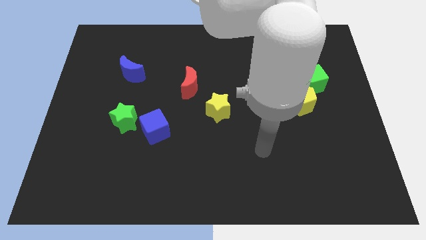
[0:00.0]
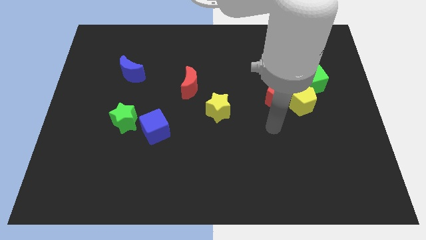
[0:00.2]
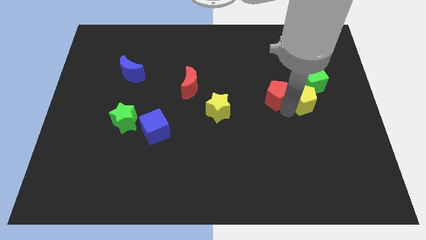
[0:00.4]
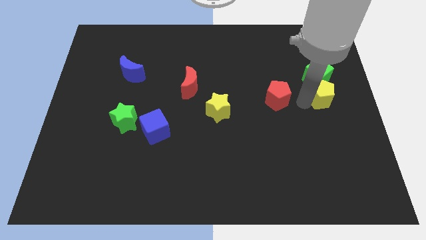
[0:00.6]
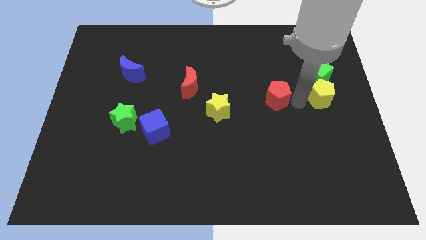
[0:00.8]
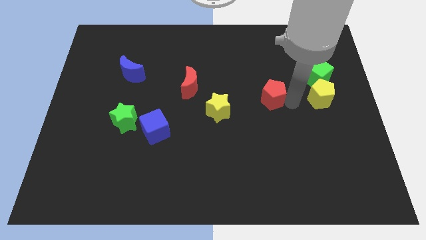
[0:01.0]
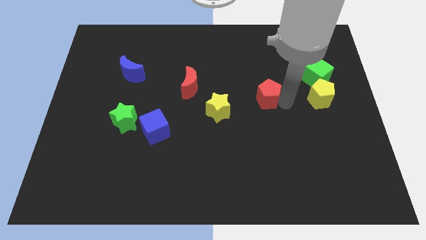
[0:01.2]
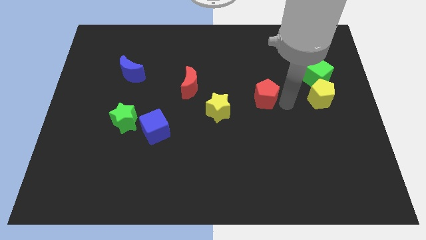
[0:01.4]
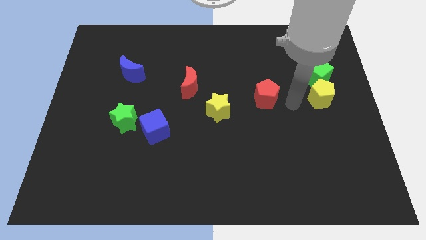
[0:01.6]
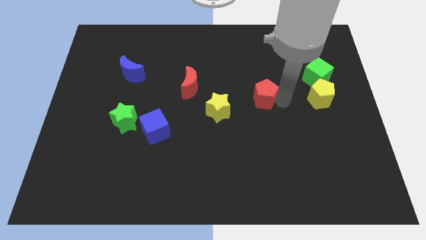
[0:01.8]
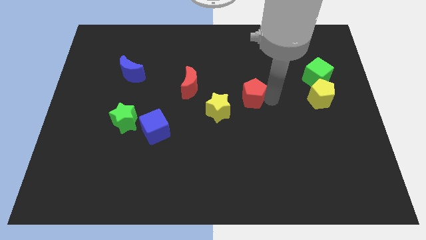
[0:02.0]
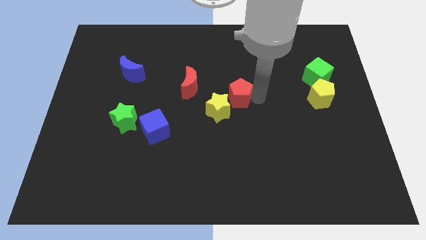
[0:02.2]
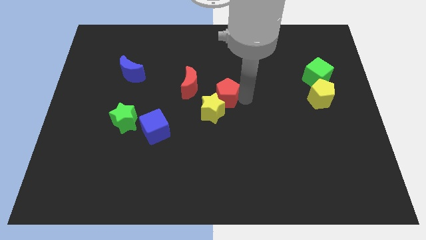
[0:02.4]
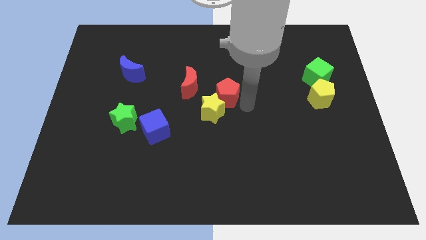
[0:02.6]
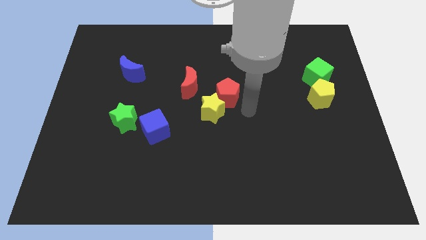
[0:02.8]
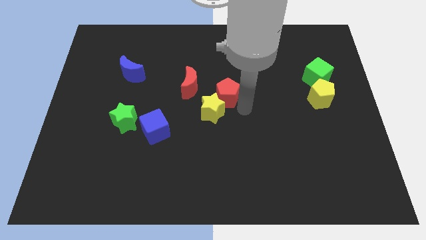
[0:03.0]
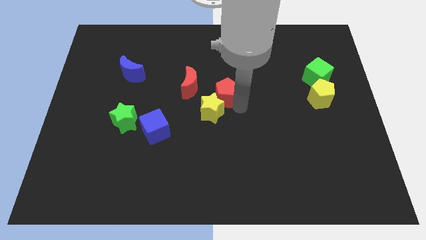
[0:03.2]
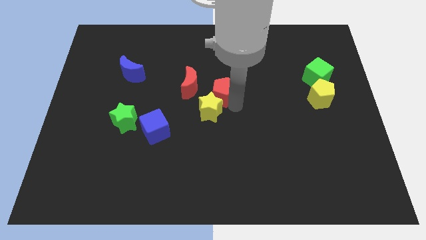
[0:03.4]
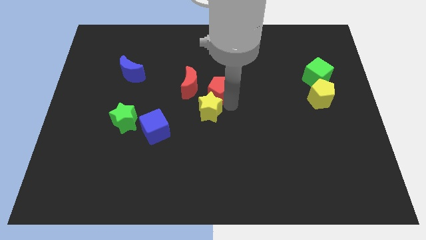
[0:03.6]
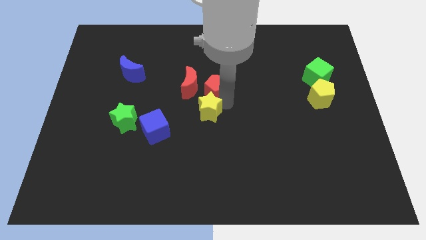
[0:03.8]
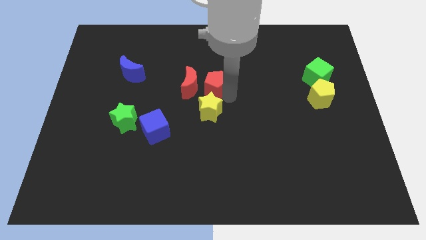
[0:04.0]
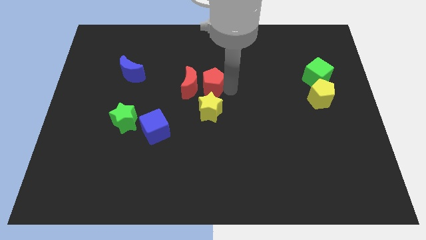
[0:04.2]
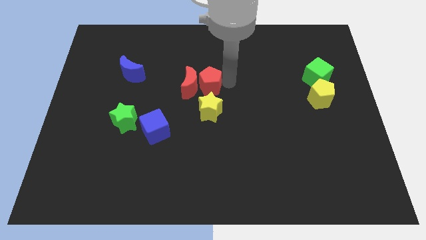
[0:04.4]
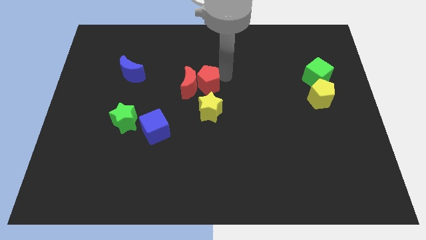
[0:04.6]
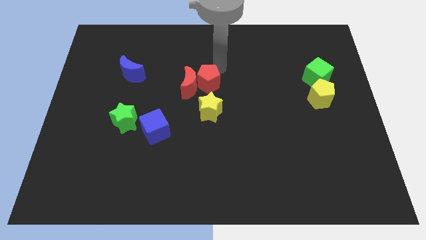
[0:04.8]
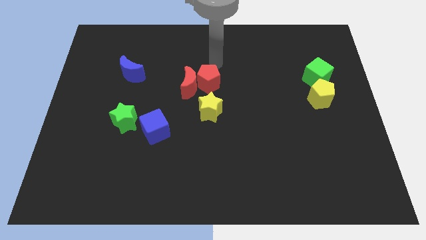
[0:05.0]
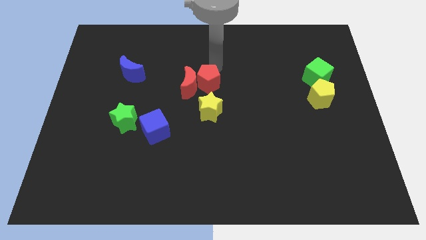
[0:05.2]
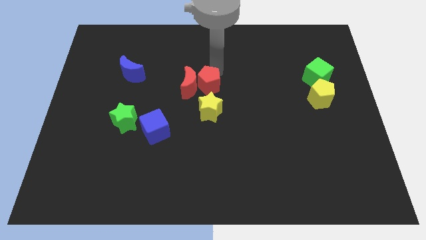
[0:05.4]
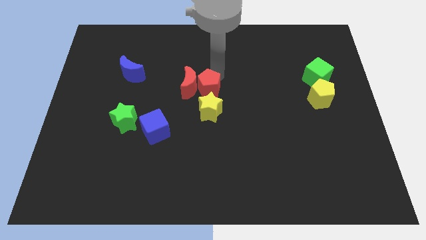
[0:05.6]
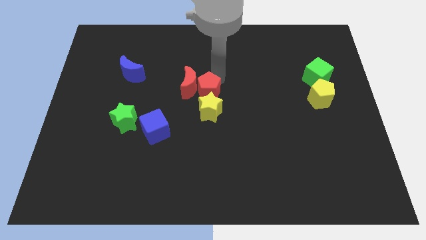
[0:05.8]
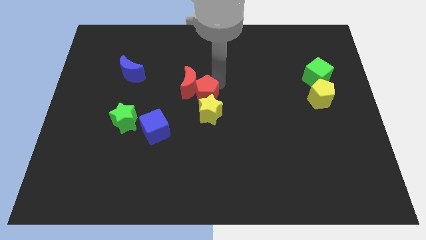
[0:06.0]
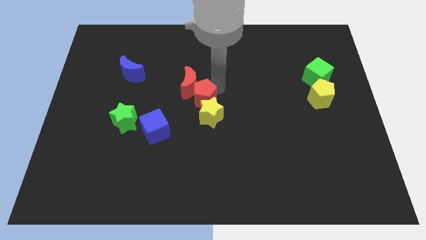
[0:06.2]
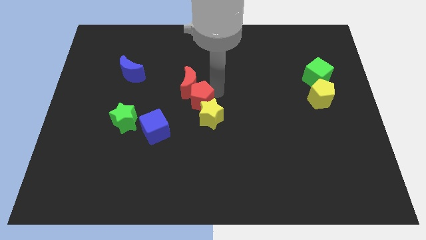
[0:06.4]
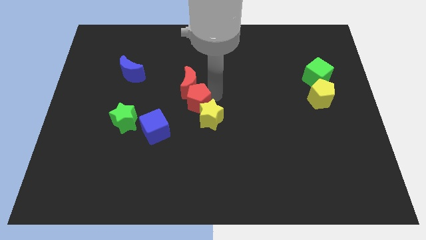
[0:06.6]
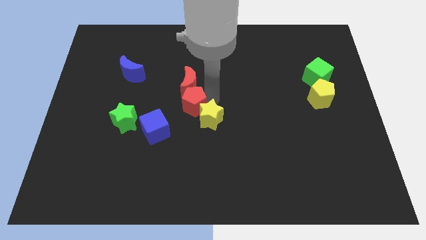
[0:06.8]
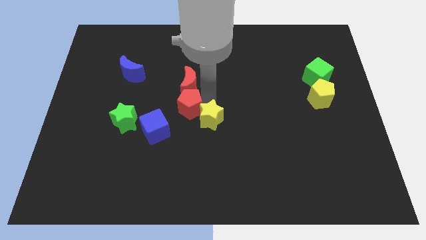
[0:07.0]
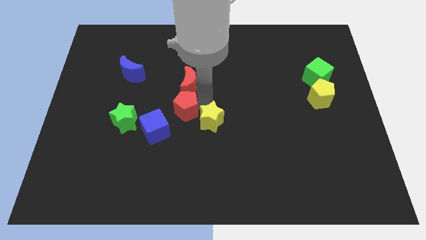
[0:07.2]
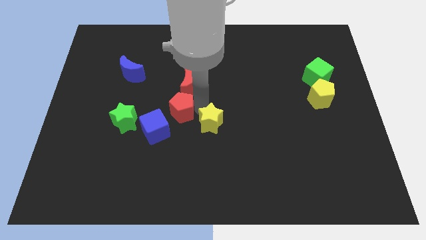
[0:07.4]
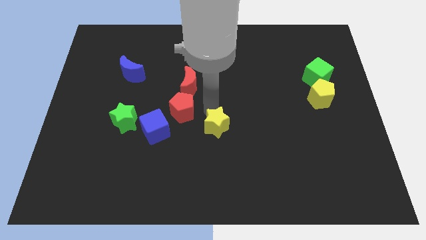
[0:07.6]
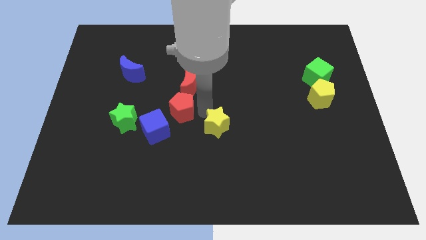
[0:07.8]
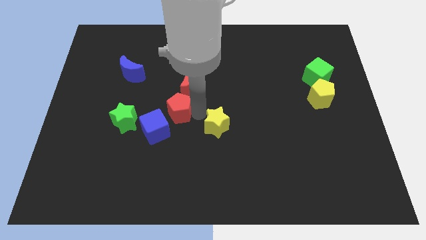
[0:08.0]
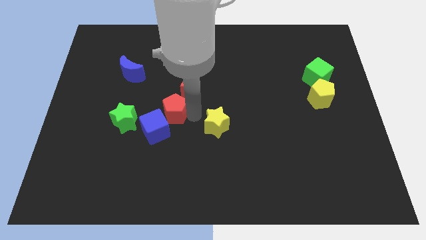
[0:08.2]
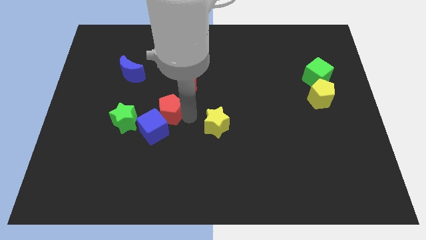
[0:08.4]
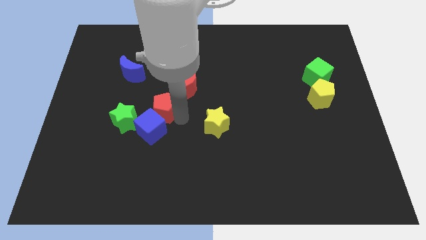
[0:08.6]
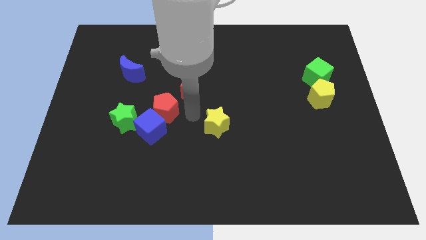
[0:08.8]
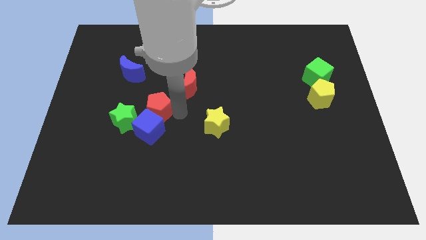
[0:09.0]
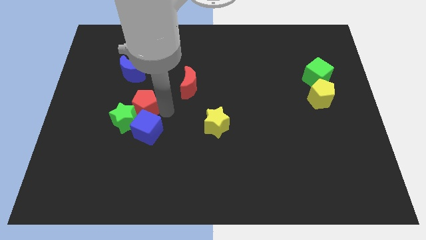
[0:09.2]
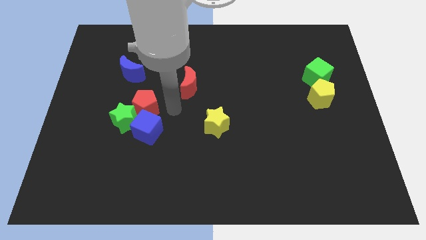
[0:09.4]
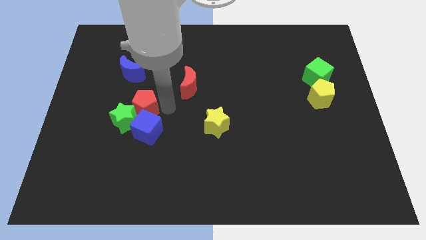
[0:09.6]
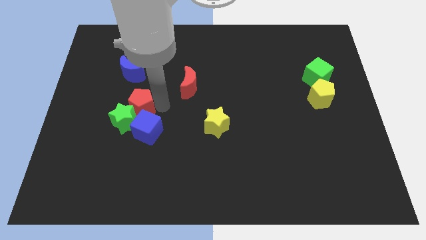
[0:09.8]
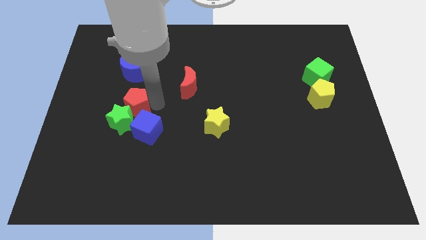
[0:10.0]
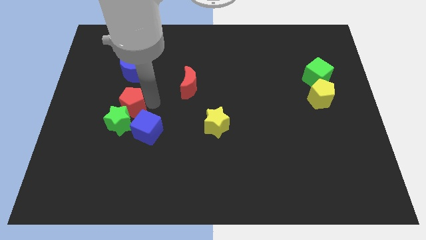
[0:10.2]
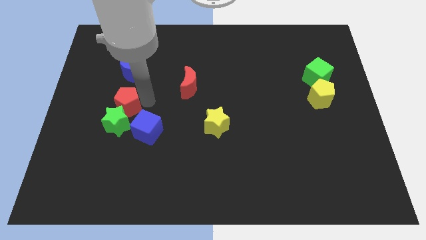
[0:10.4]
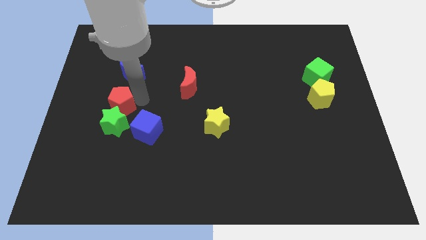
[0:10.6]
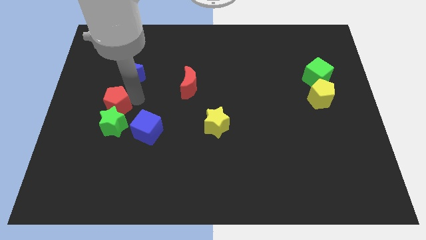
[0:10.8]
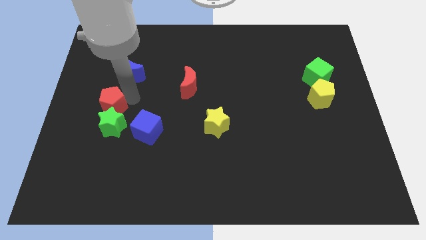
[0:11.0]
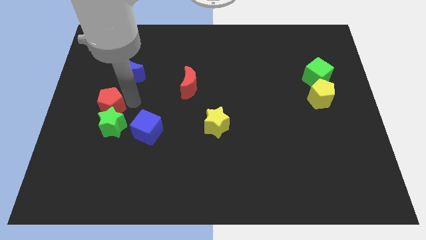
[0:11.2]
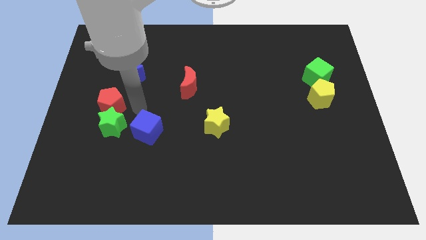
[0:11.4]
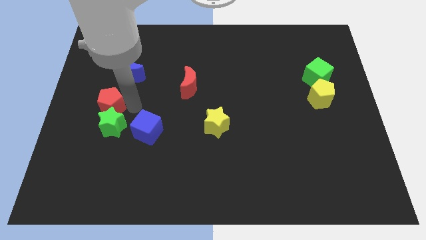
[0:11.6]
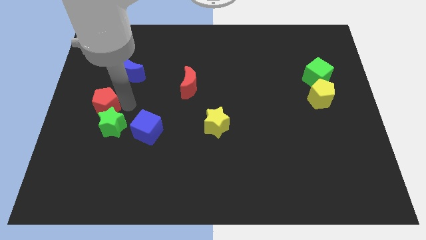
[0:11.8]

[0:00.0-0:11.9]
push the red pentagon to the left side of the board
